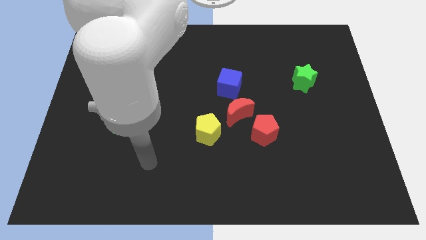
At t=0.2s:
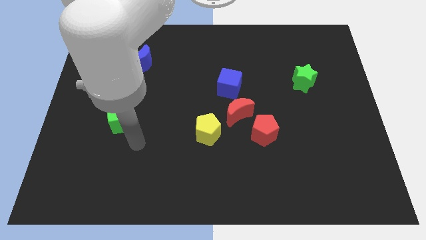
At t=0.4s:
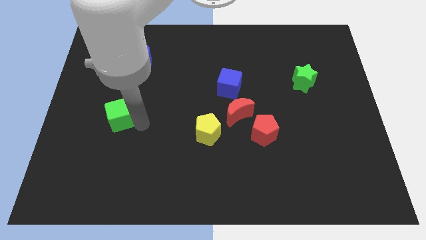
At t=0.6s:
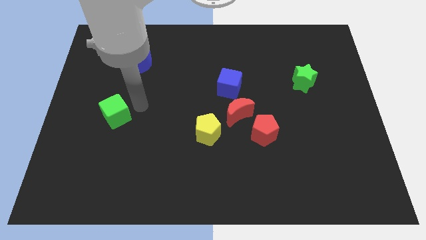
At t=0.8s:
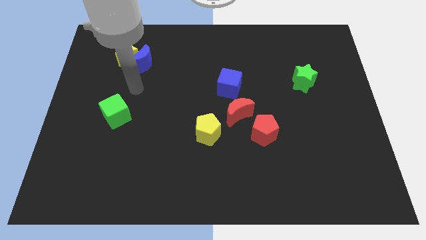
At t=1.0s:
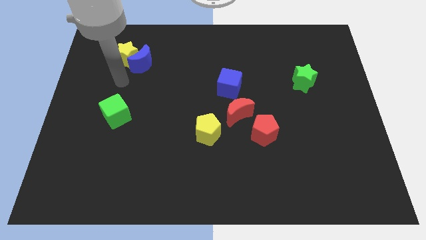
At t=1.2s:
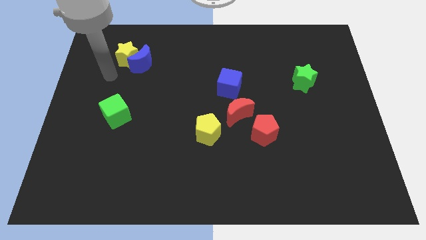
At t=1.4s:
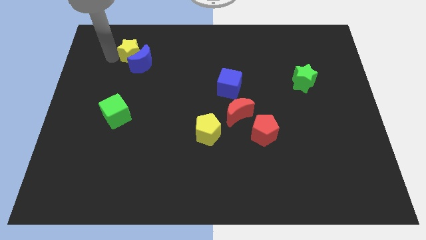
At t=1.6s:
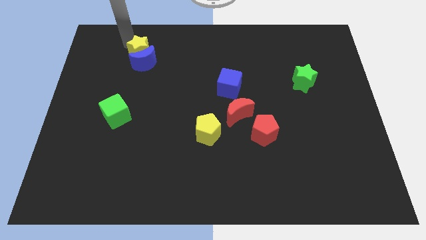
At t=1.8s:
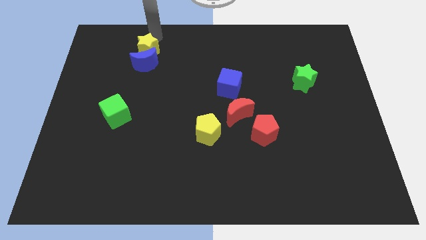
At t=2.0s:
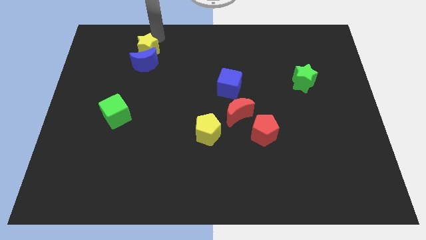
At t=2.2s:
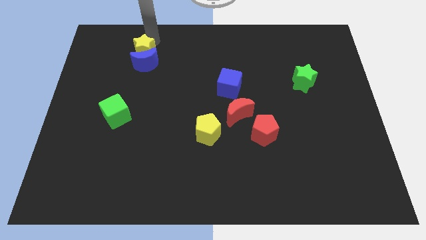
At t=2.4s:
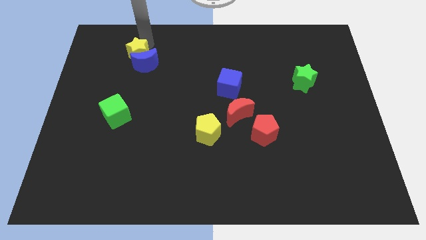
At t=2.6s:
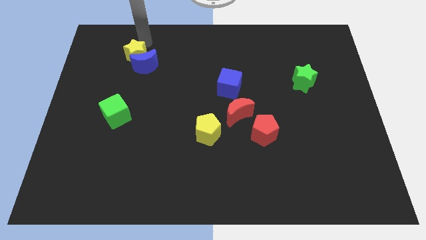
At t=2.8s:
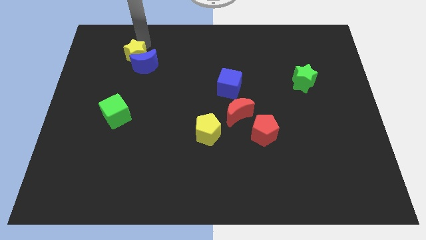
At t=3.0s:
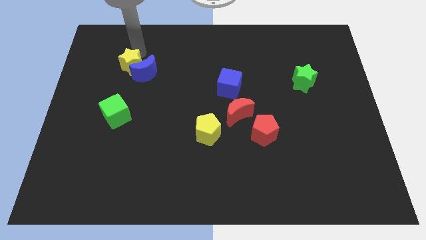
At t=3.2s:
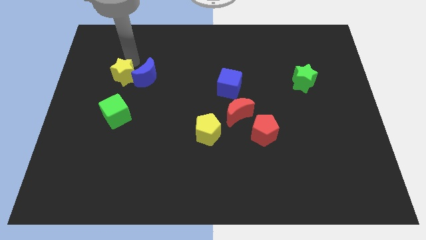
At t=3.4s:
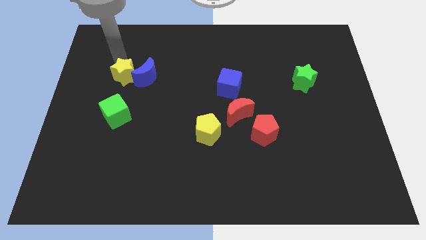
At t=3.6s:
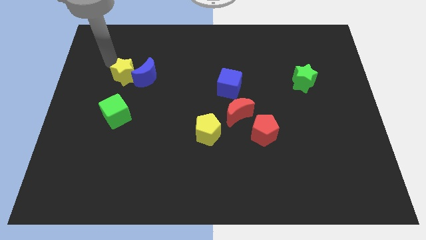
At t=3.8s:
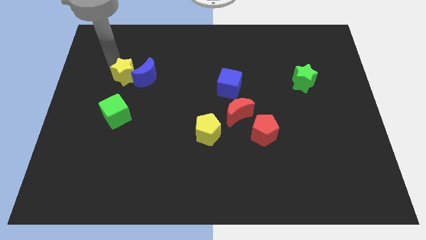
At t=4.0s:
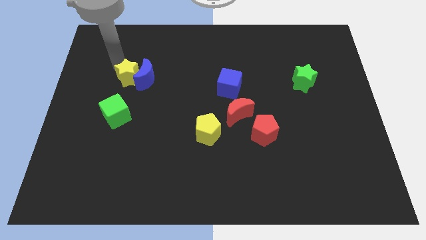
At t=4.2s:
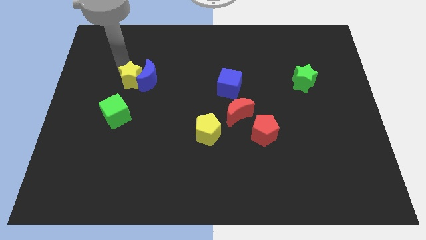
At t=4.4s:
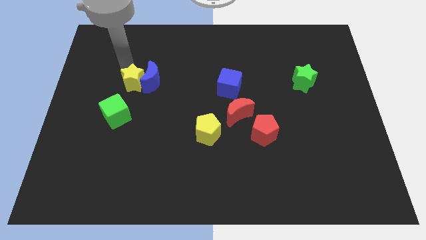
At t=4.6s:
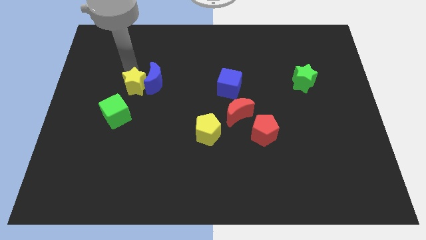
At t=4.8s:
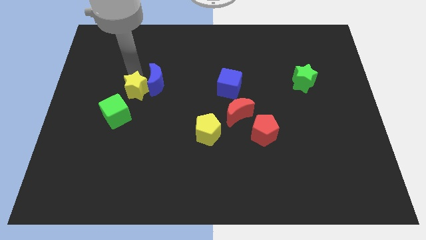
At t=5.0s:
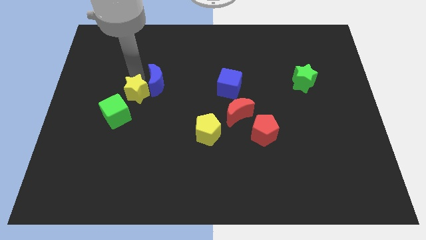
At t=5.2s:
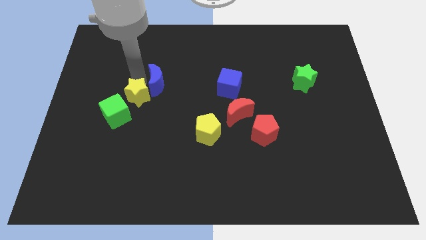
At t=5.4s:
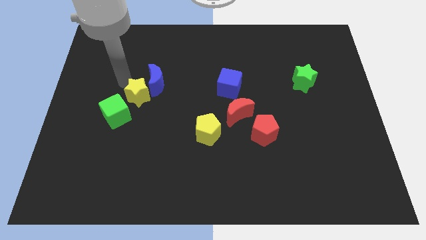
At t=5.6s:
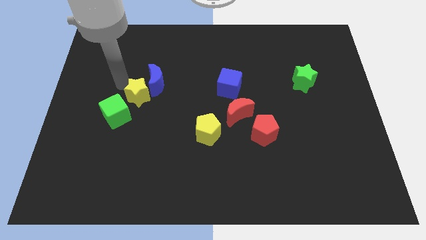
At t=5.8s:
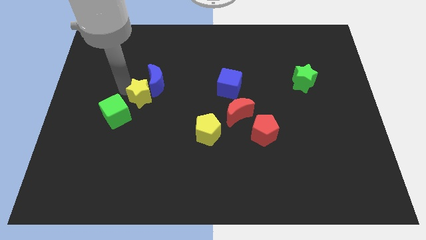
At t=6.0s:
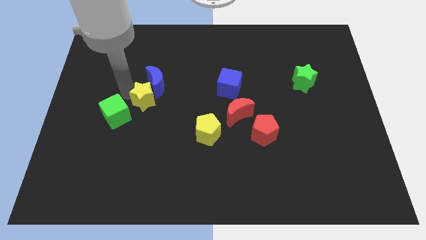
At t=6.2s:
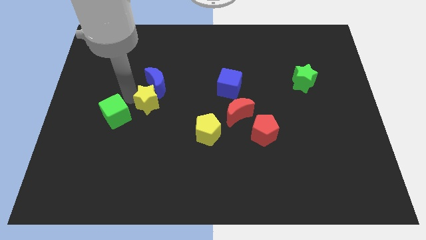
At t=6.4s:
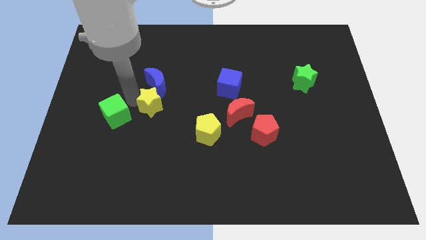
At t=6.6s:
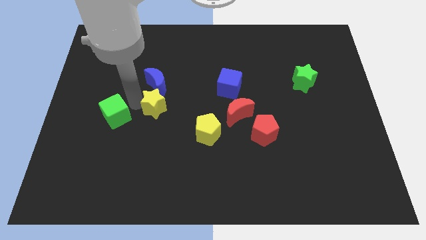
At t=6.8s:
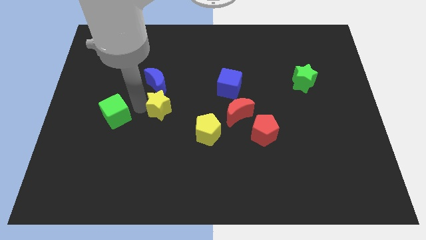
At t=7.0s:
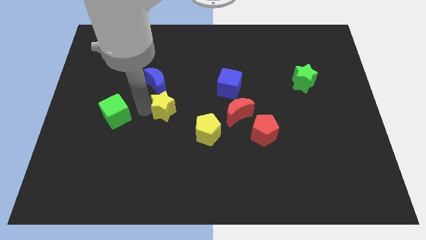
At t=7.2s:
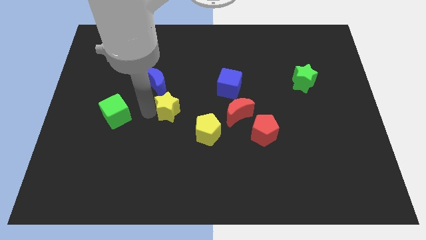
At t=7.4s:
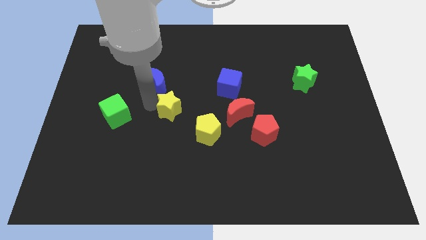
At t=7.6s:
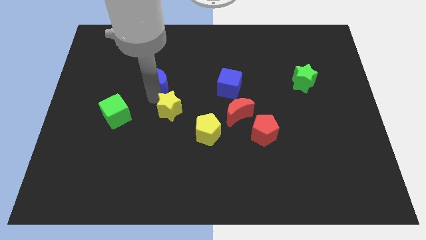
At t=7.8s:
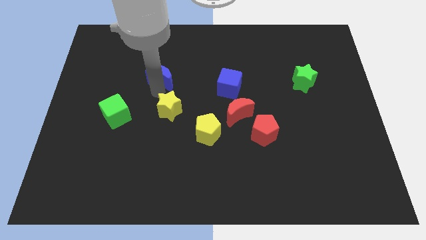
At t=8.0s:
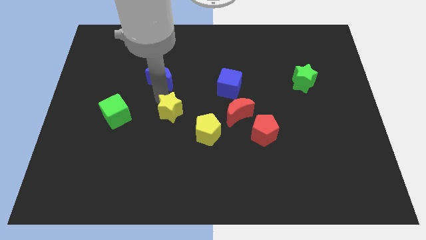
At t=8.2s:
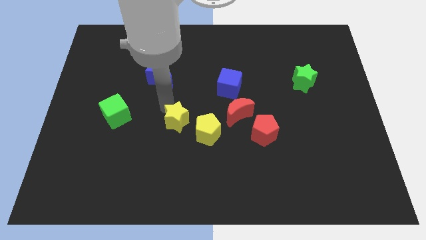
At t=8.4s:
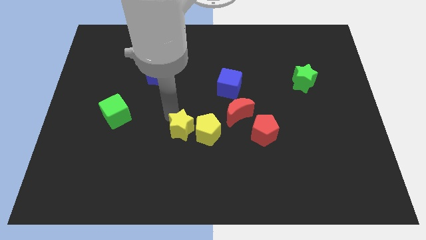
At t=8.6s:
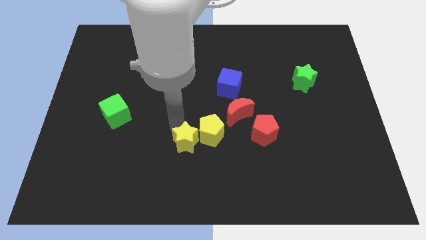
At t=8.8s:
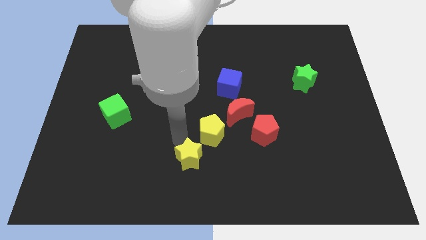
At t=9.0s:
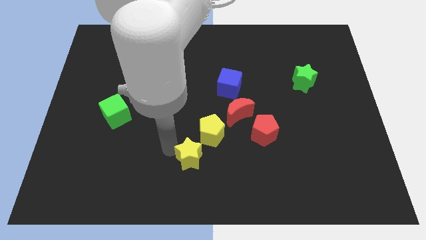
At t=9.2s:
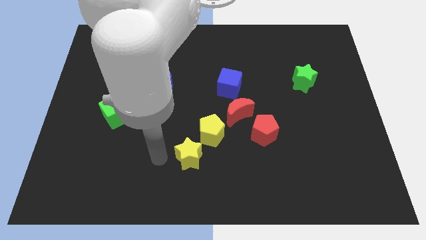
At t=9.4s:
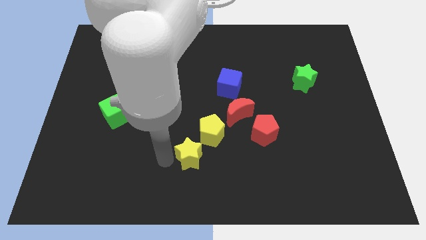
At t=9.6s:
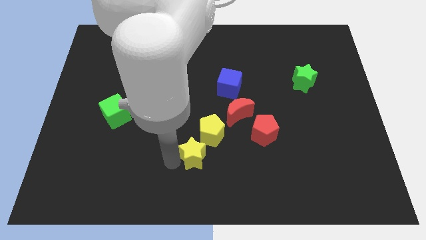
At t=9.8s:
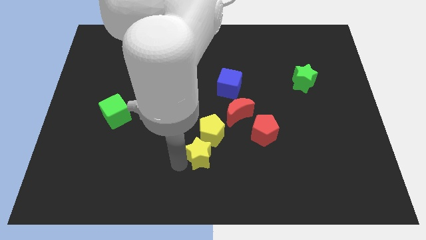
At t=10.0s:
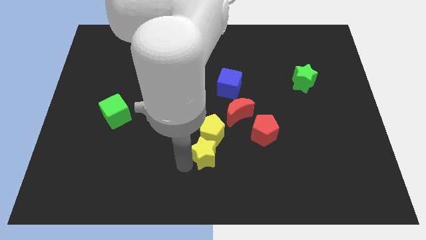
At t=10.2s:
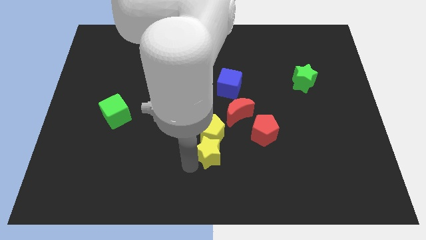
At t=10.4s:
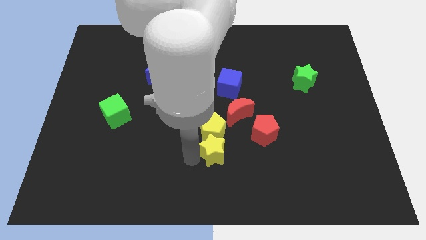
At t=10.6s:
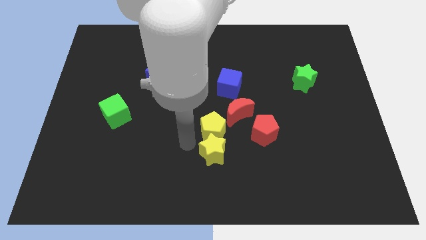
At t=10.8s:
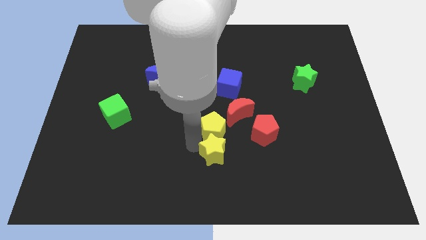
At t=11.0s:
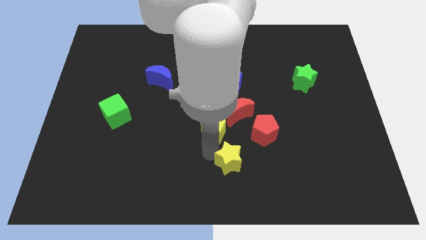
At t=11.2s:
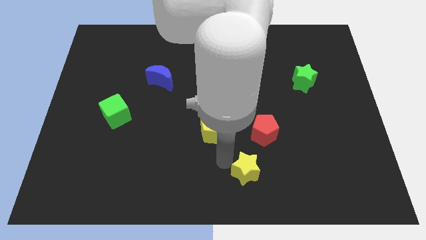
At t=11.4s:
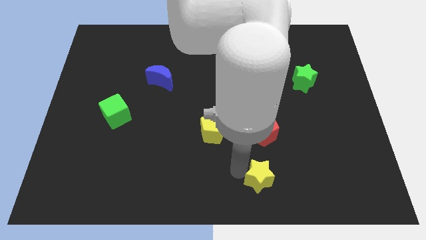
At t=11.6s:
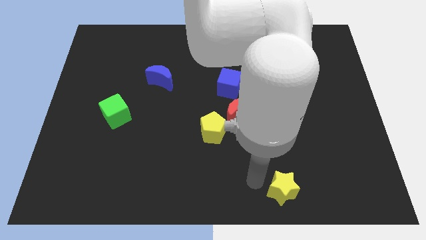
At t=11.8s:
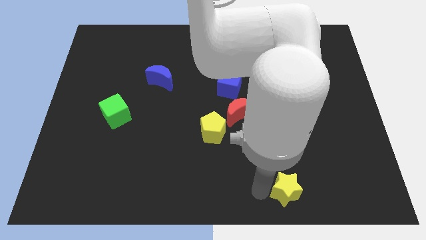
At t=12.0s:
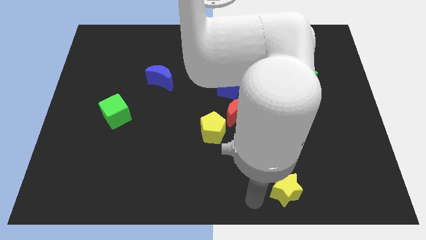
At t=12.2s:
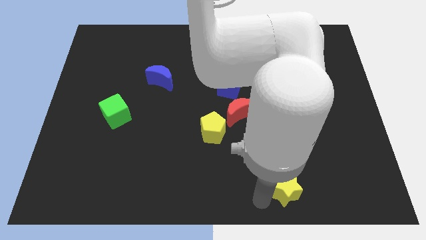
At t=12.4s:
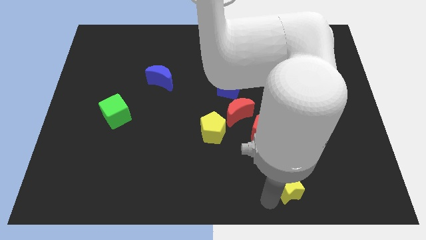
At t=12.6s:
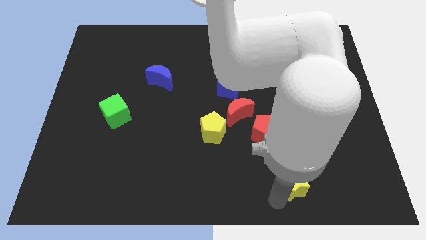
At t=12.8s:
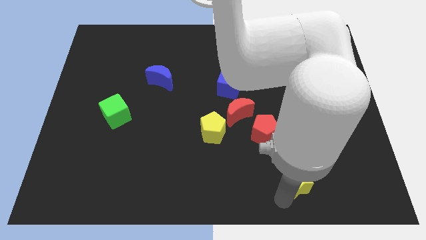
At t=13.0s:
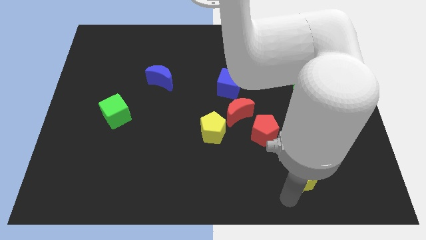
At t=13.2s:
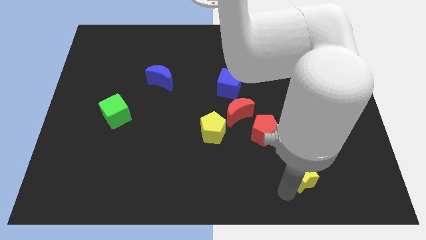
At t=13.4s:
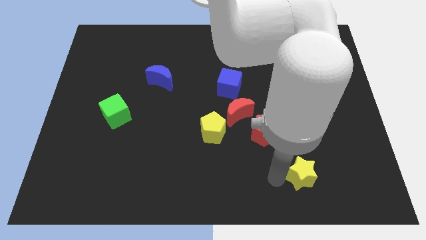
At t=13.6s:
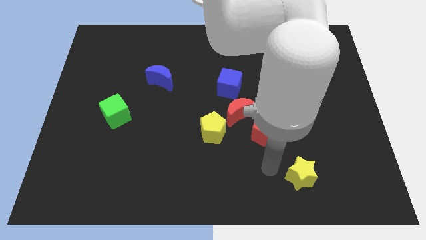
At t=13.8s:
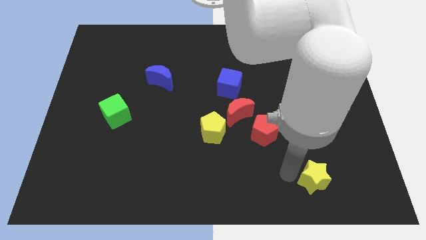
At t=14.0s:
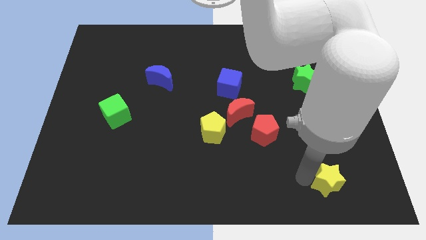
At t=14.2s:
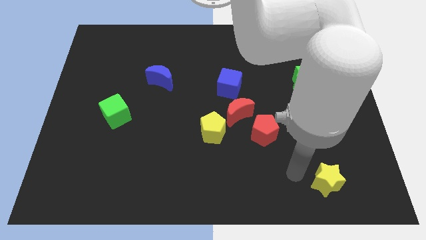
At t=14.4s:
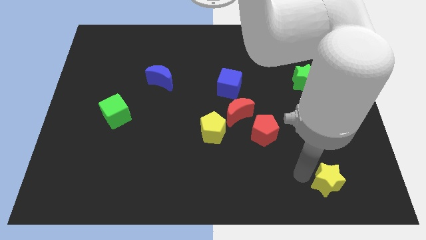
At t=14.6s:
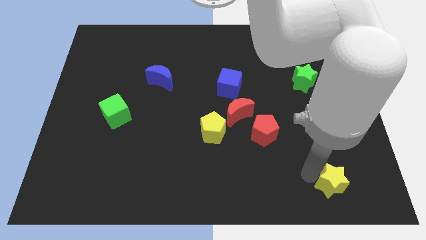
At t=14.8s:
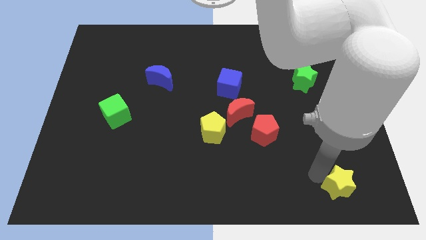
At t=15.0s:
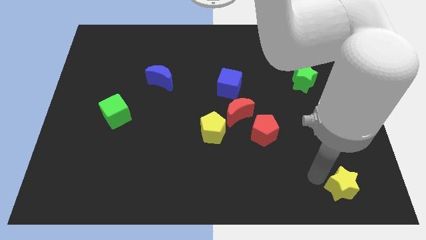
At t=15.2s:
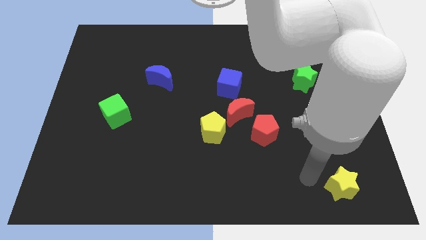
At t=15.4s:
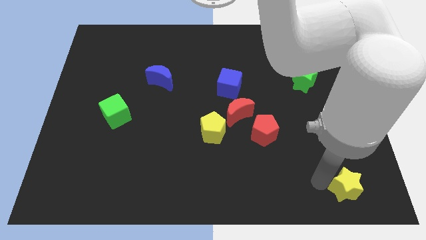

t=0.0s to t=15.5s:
put the yellow star to the bottom right of the board
